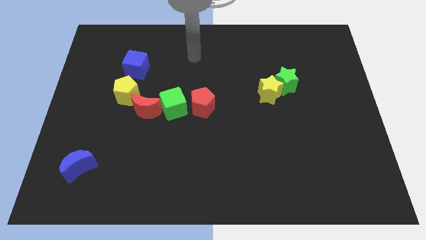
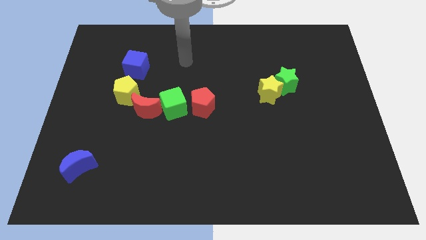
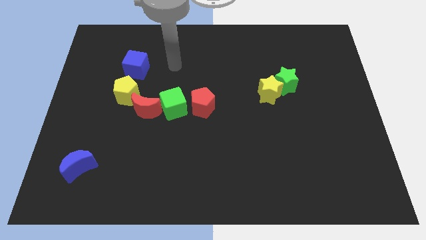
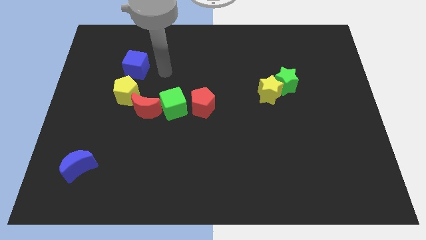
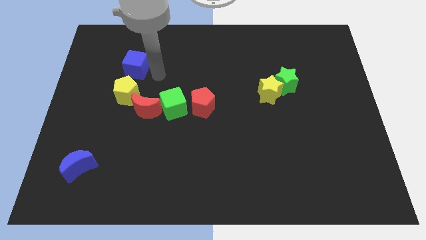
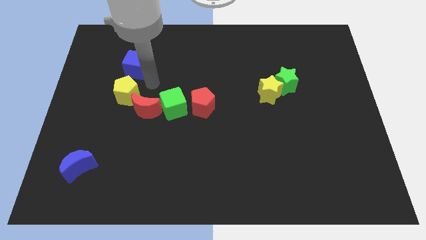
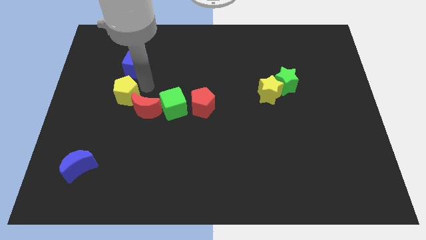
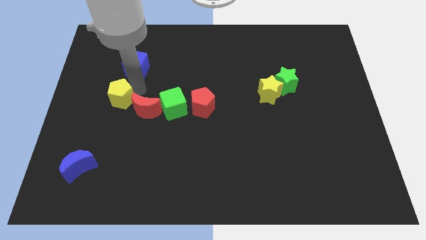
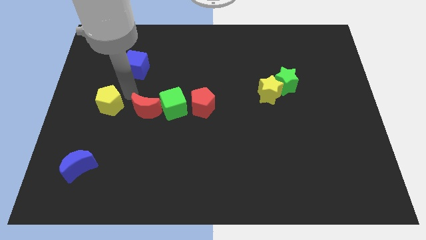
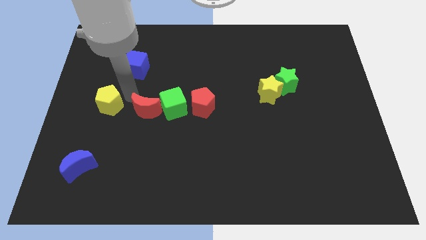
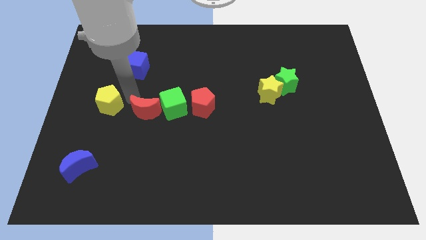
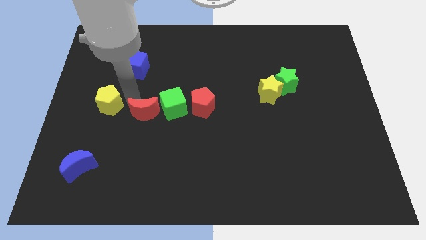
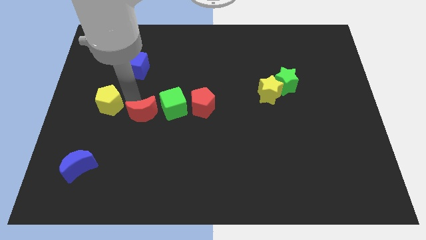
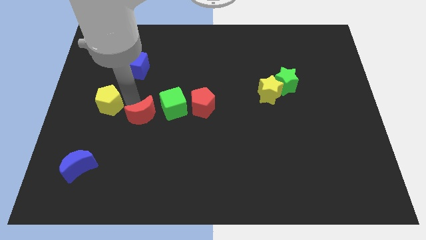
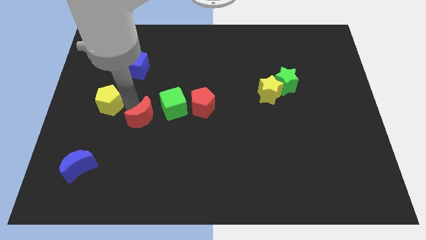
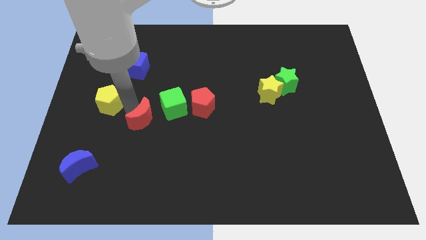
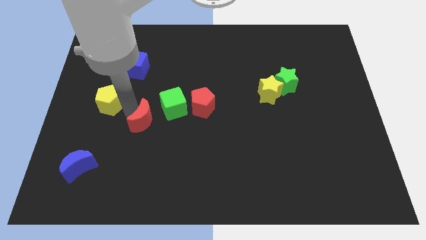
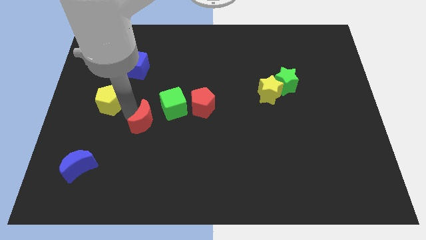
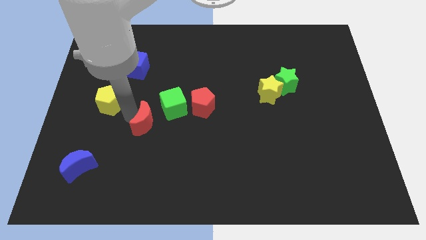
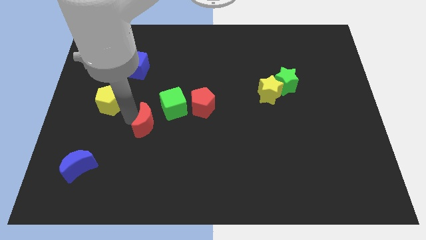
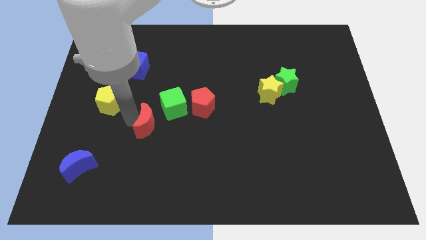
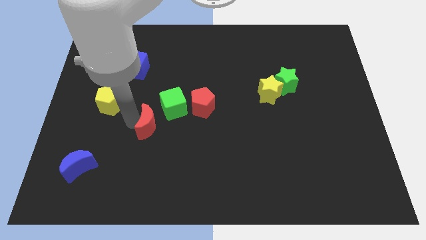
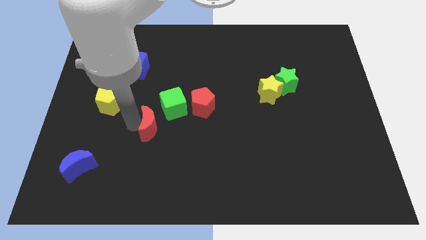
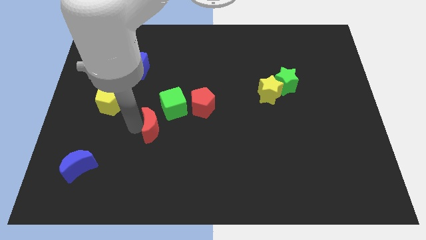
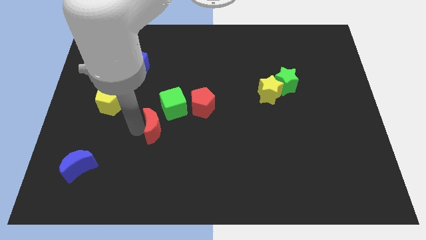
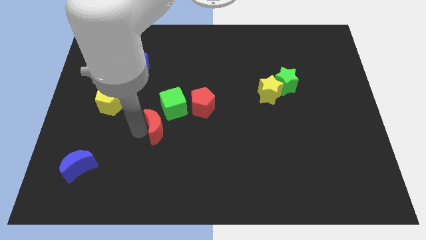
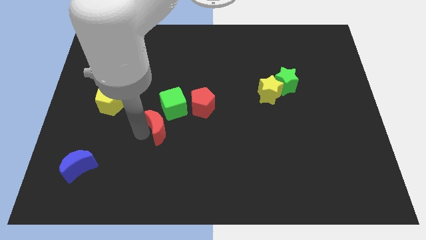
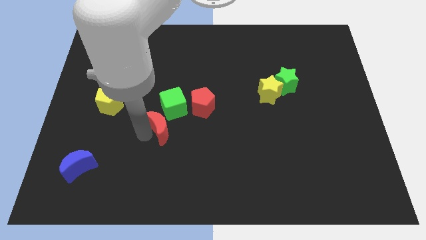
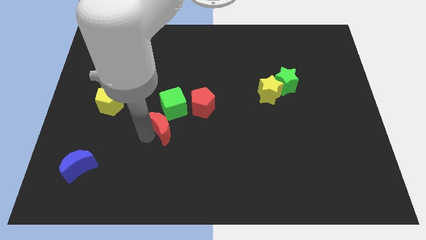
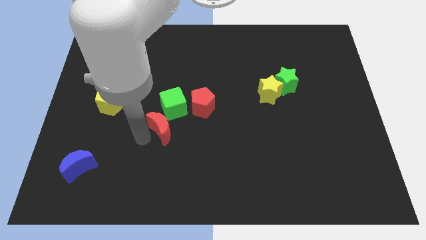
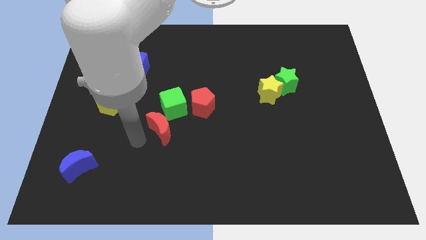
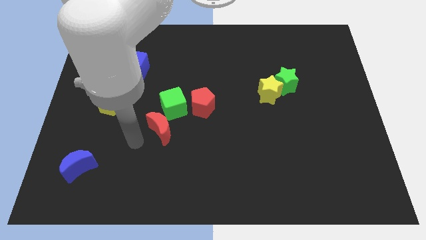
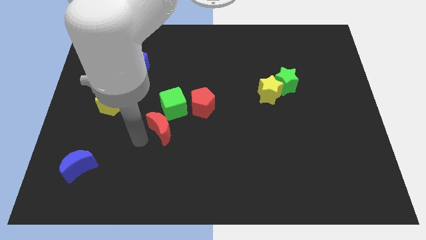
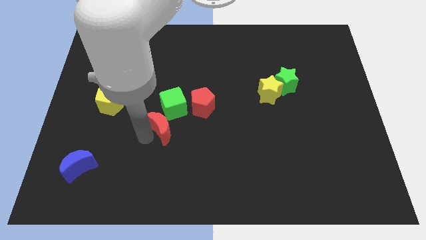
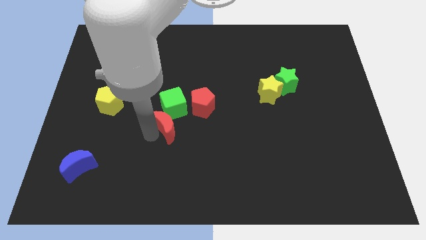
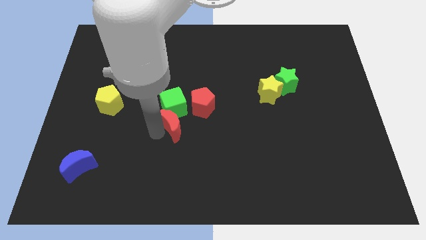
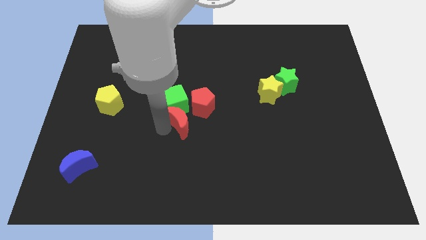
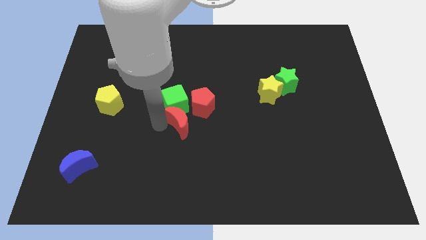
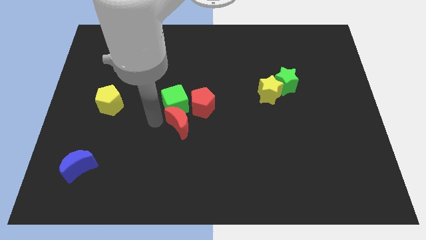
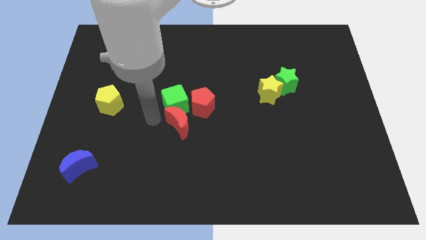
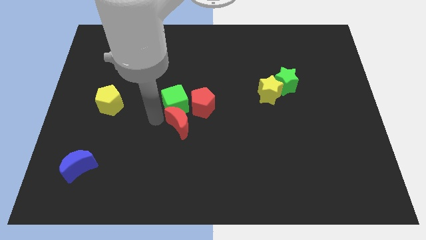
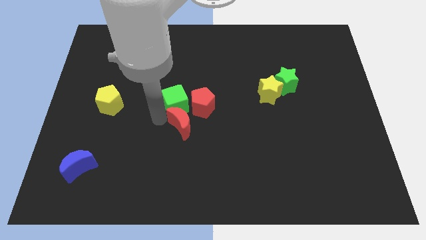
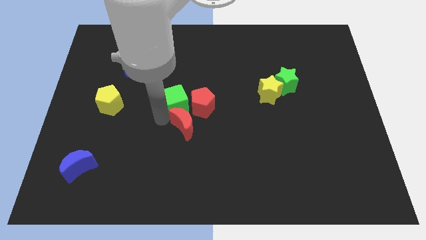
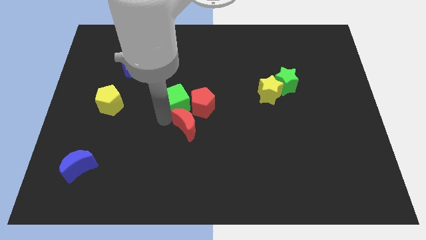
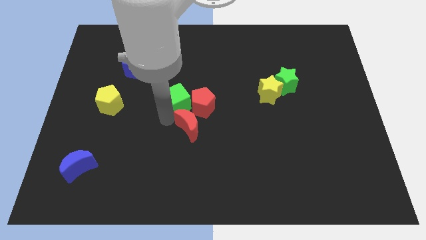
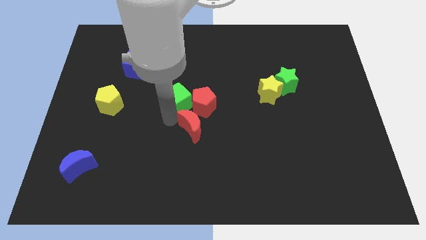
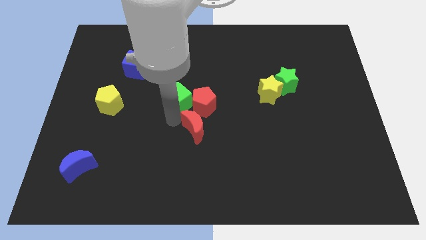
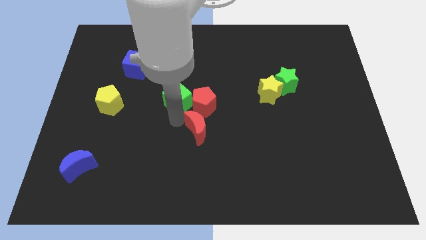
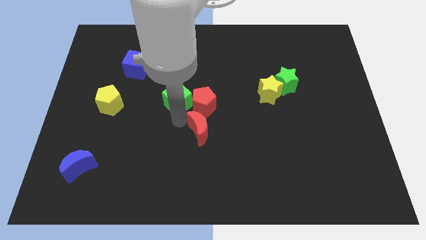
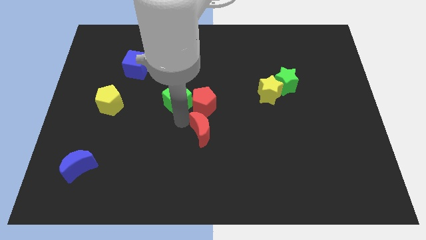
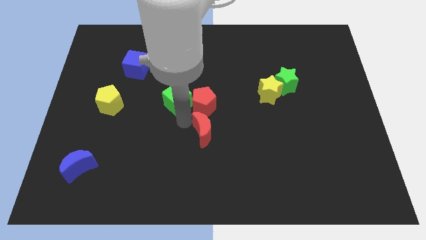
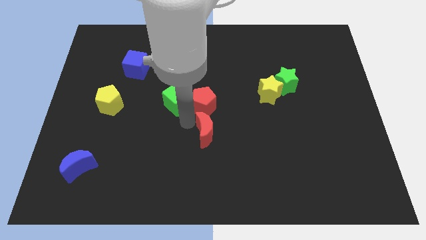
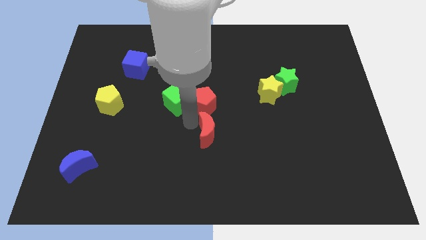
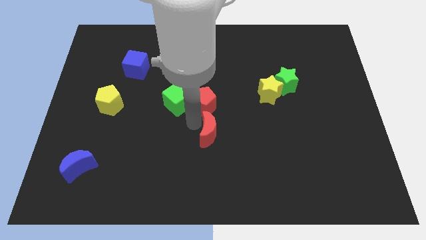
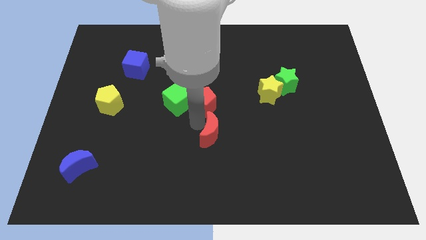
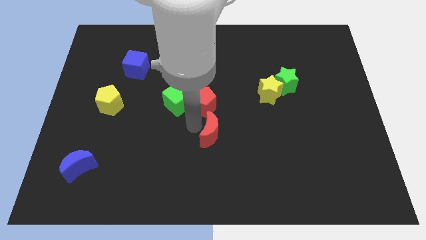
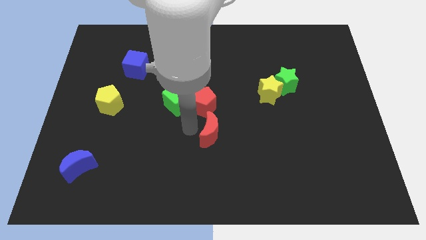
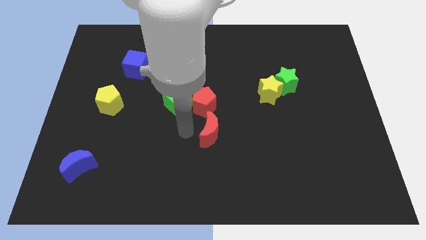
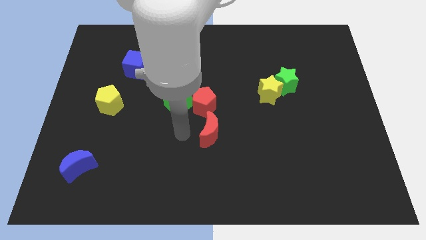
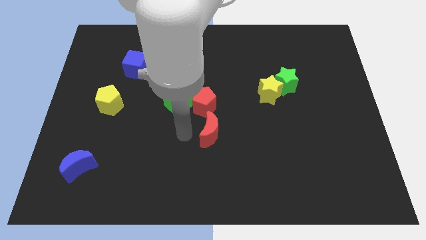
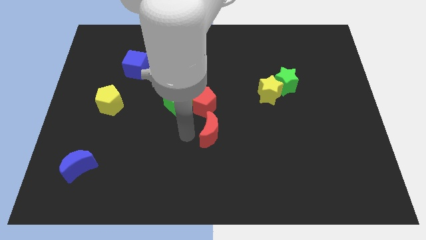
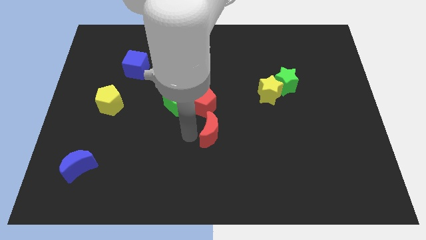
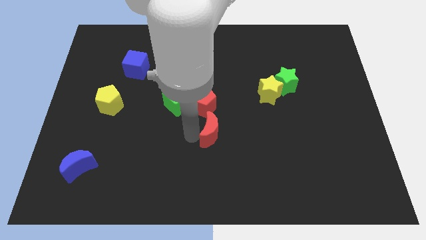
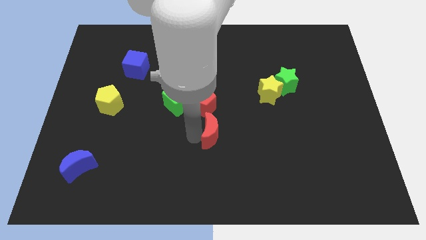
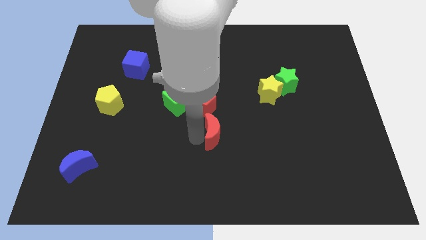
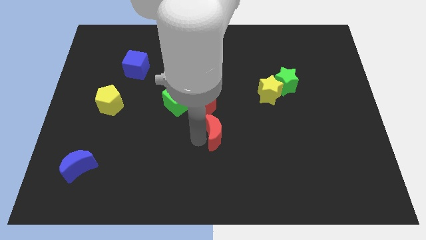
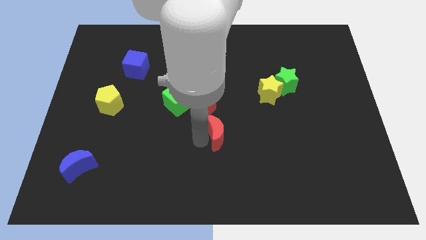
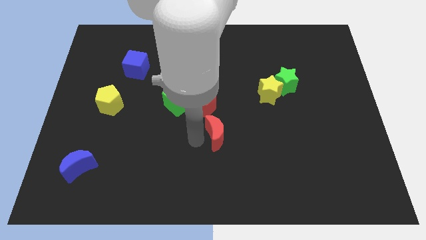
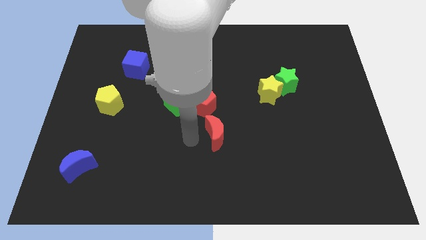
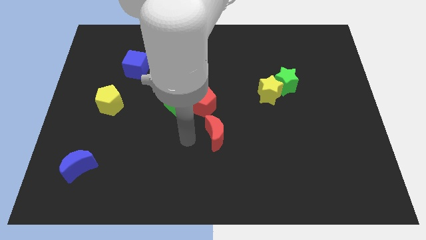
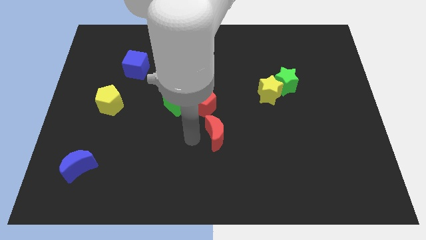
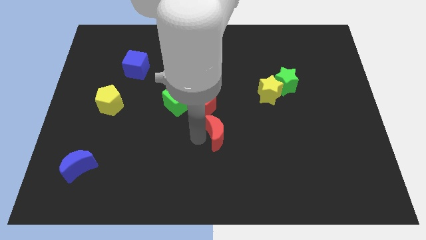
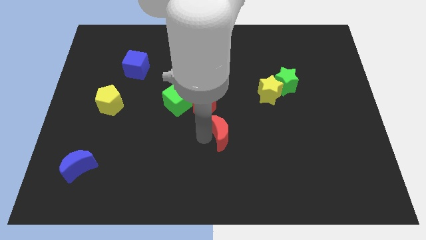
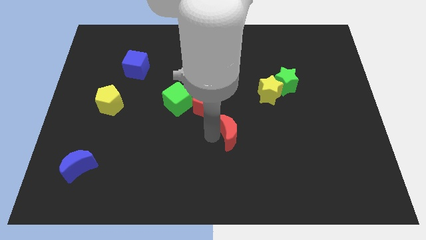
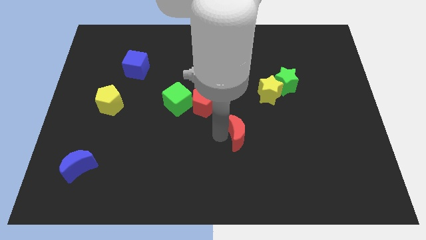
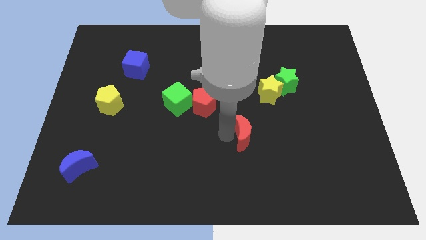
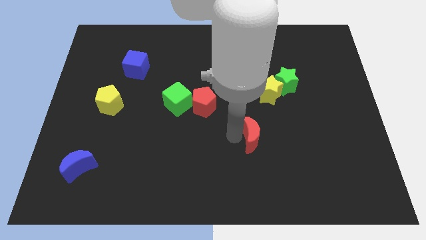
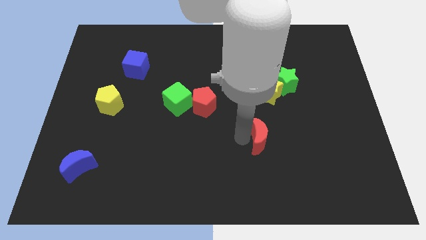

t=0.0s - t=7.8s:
put the red moon to the bottom side of the yellow star
